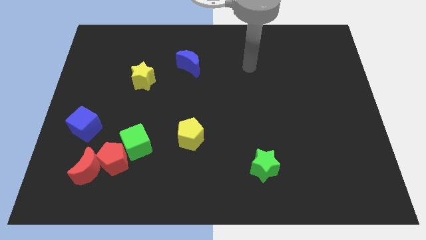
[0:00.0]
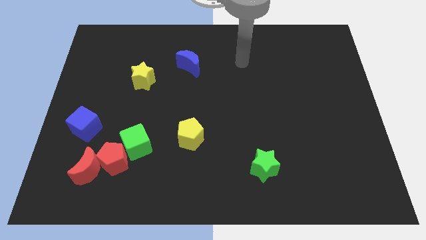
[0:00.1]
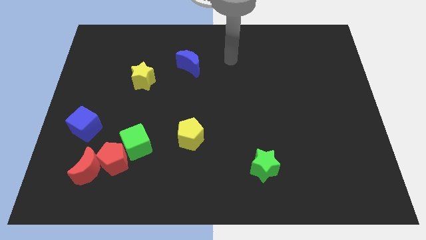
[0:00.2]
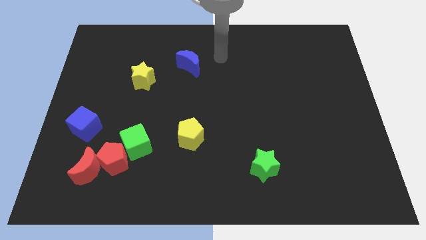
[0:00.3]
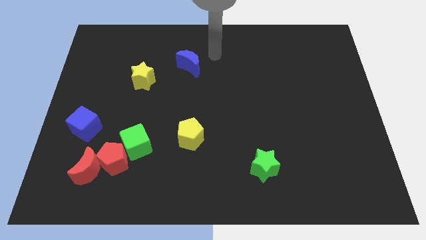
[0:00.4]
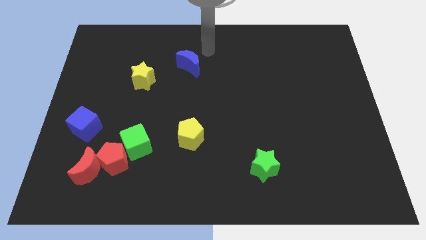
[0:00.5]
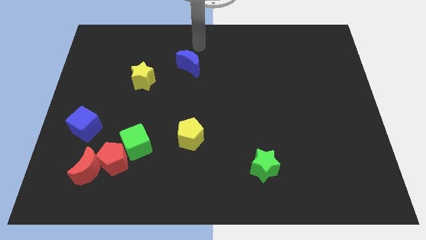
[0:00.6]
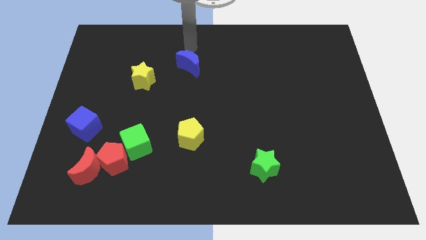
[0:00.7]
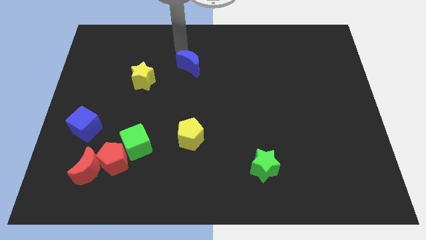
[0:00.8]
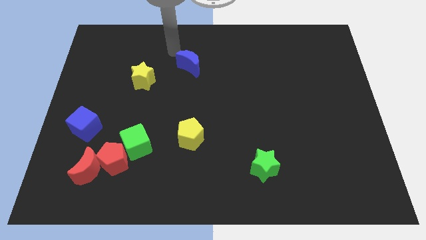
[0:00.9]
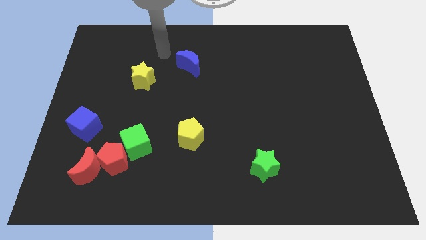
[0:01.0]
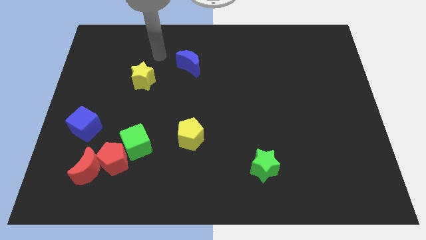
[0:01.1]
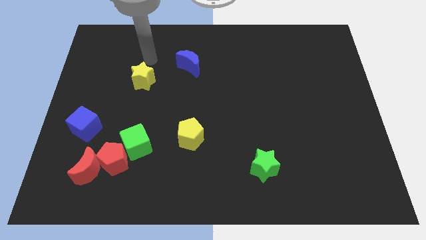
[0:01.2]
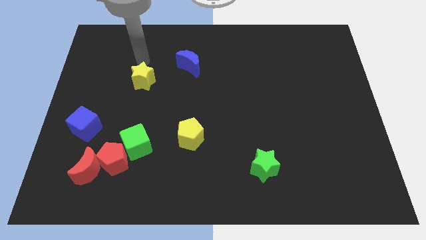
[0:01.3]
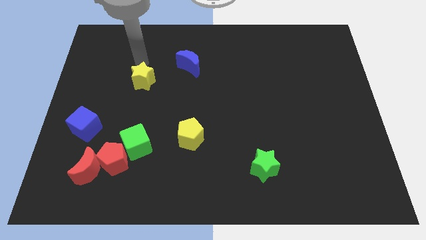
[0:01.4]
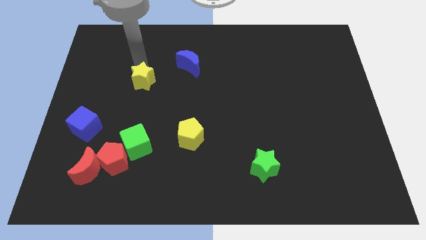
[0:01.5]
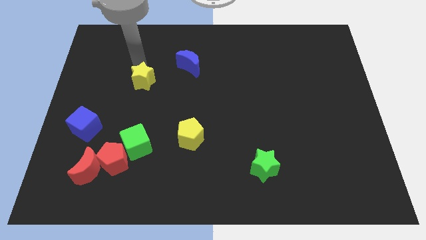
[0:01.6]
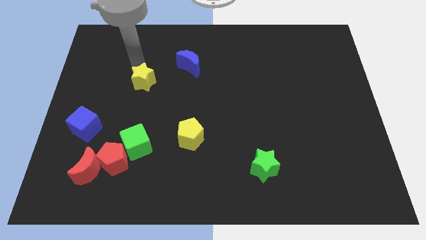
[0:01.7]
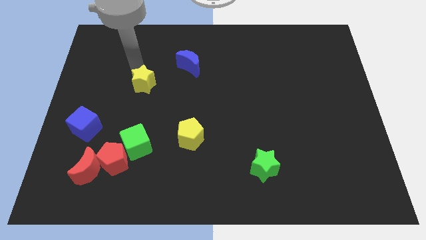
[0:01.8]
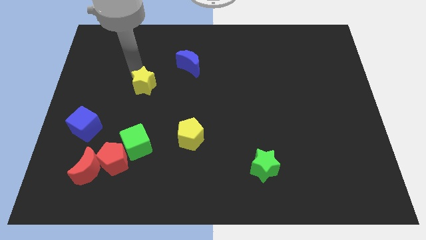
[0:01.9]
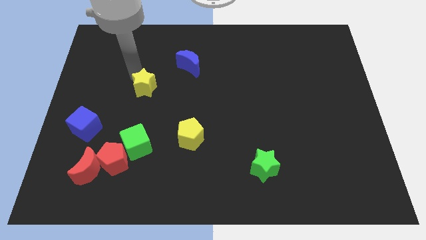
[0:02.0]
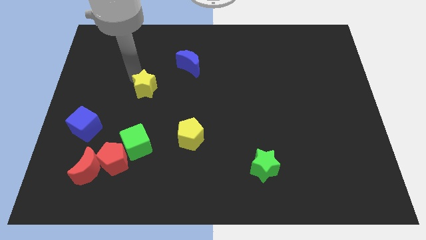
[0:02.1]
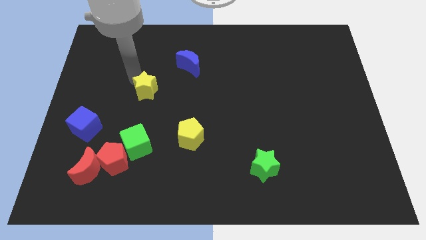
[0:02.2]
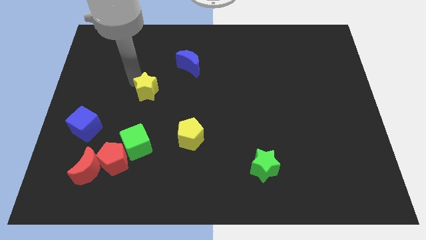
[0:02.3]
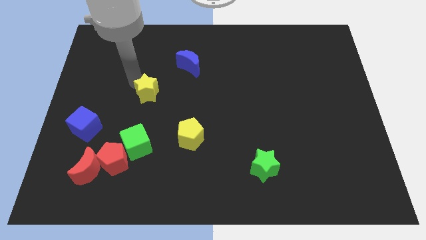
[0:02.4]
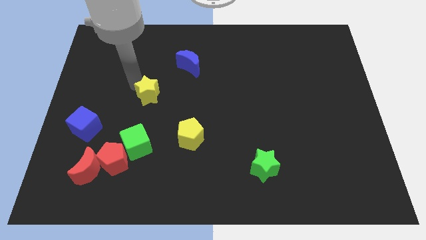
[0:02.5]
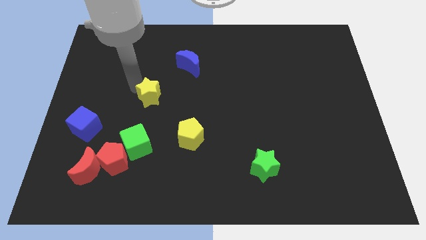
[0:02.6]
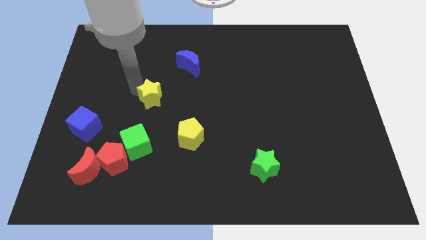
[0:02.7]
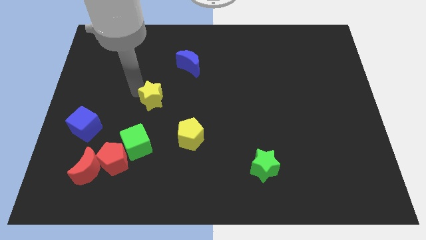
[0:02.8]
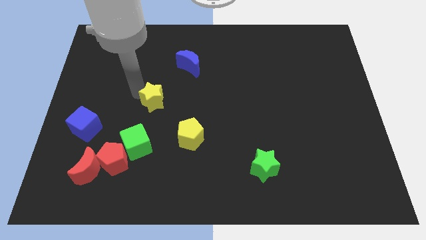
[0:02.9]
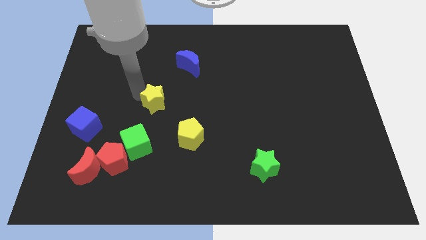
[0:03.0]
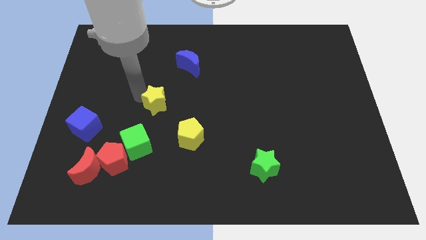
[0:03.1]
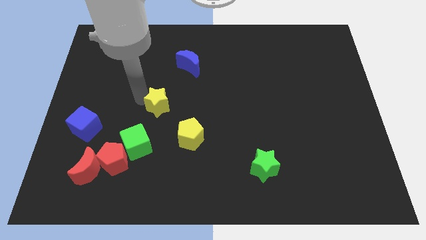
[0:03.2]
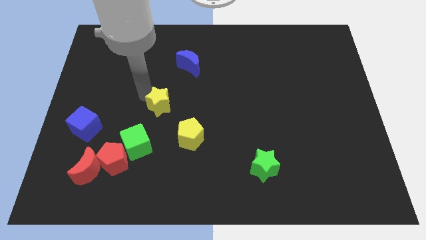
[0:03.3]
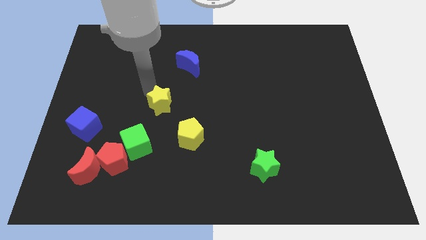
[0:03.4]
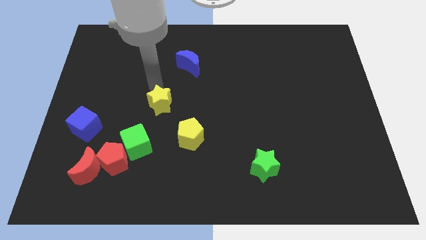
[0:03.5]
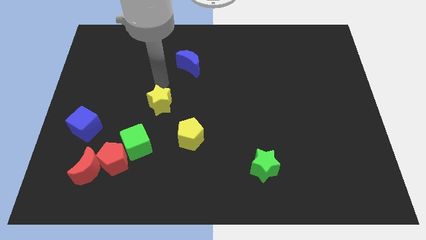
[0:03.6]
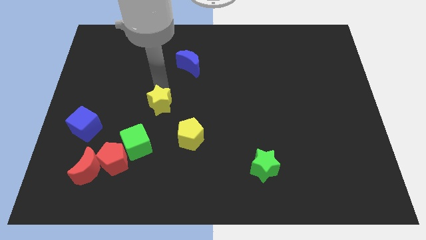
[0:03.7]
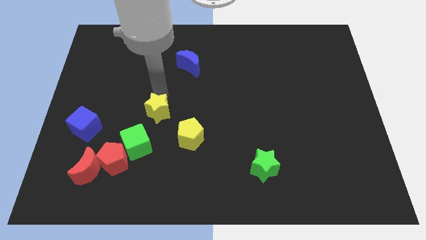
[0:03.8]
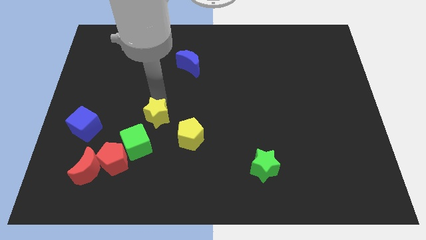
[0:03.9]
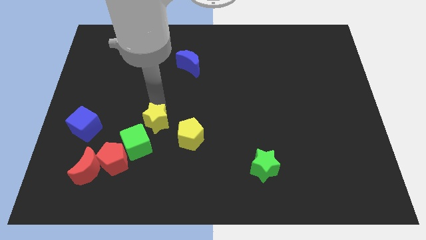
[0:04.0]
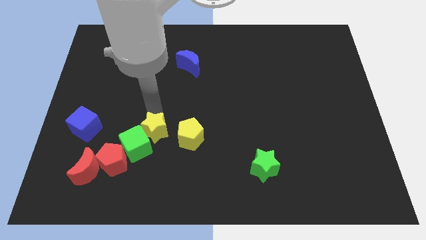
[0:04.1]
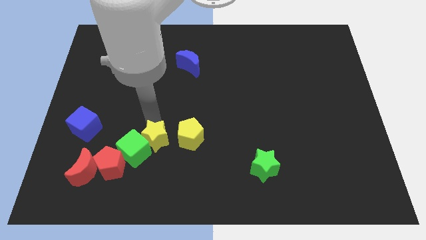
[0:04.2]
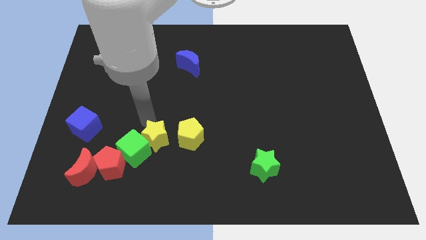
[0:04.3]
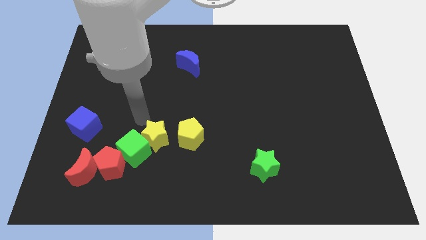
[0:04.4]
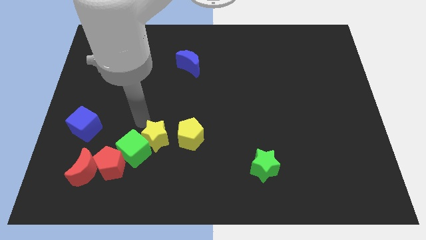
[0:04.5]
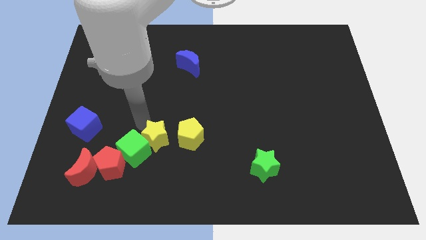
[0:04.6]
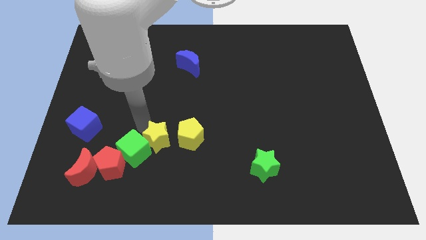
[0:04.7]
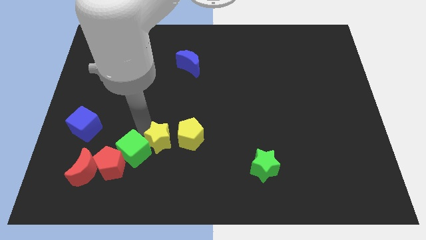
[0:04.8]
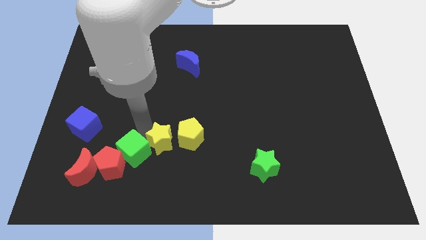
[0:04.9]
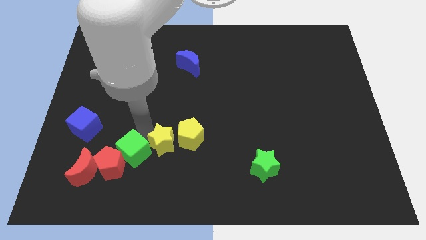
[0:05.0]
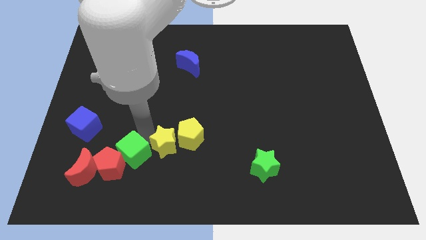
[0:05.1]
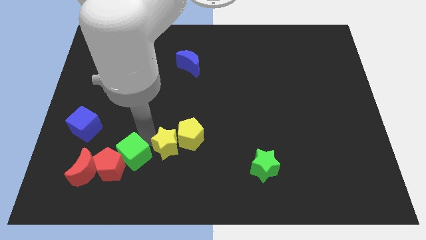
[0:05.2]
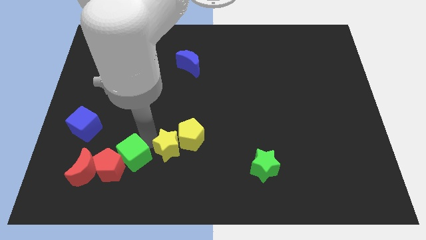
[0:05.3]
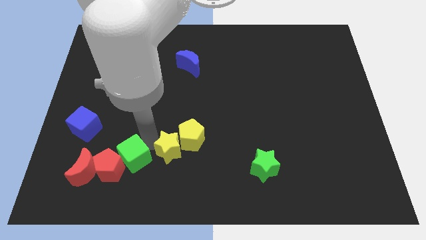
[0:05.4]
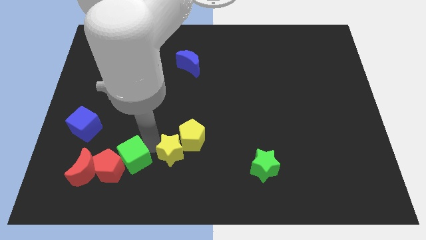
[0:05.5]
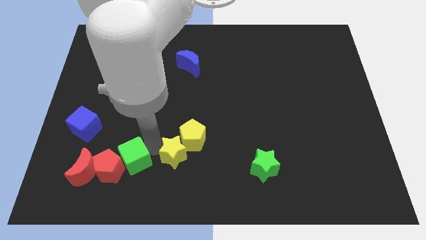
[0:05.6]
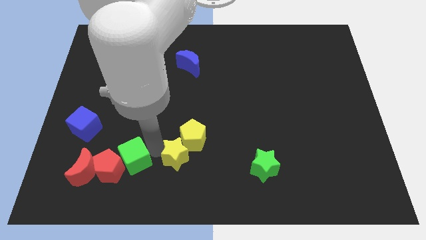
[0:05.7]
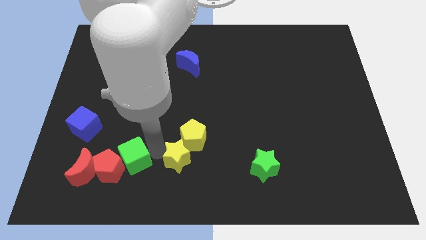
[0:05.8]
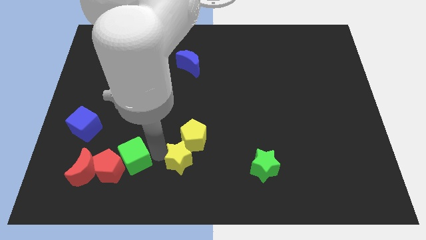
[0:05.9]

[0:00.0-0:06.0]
move the yellow star to the bottom side

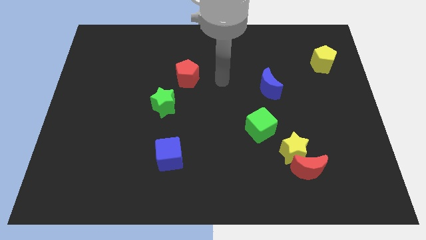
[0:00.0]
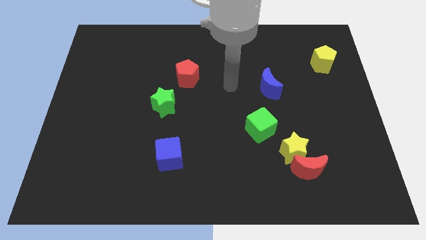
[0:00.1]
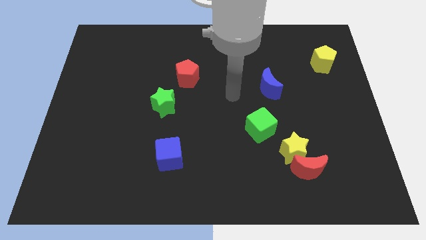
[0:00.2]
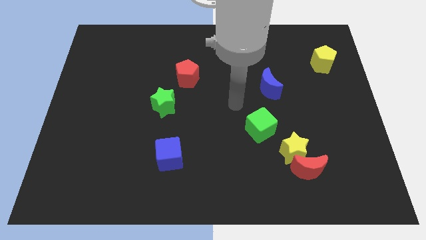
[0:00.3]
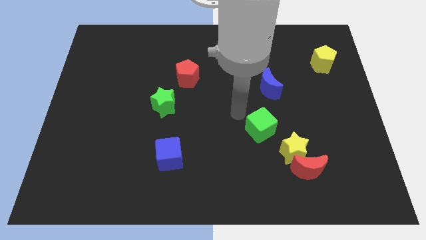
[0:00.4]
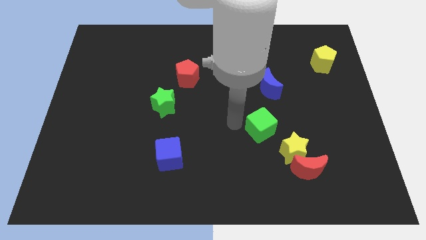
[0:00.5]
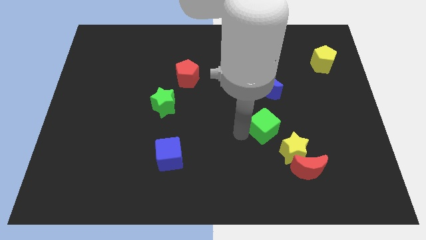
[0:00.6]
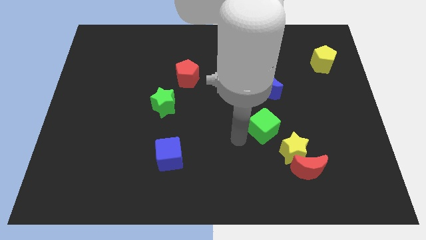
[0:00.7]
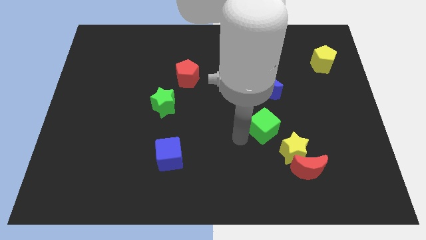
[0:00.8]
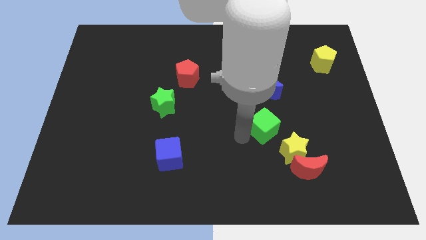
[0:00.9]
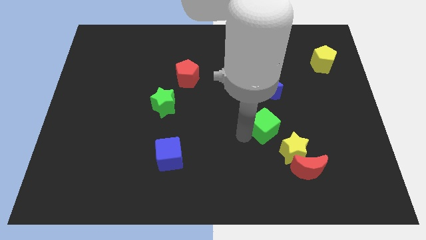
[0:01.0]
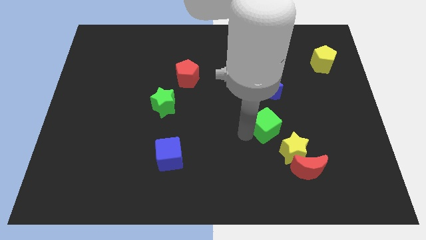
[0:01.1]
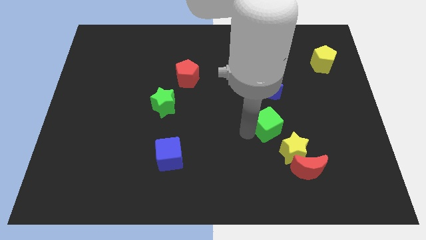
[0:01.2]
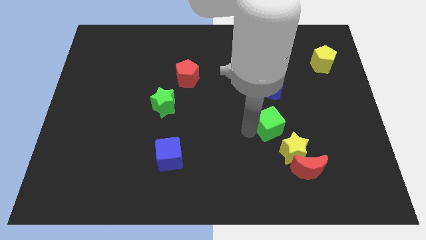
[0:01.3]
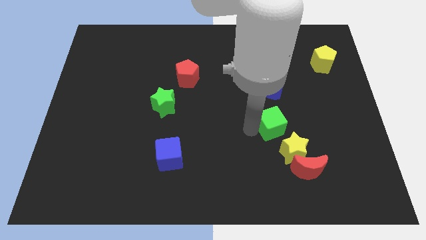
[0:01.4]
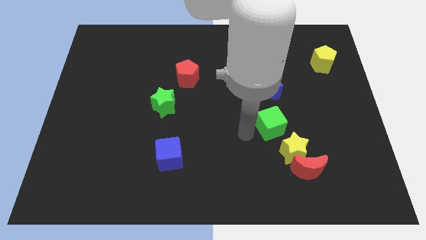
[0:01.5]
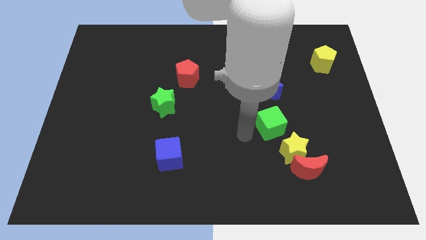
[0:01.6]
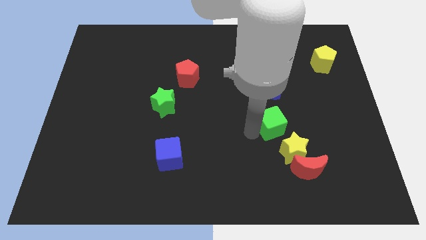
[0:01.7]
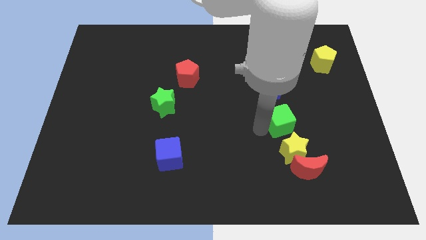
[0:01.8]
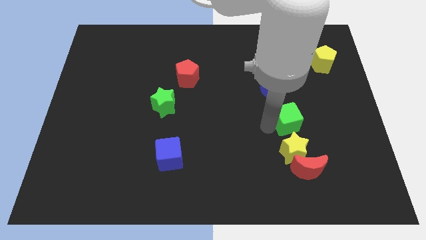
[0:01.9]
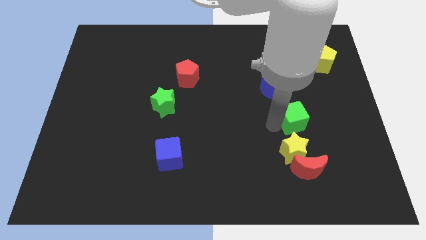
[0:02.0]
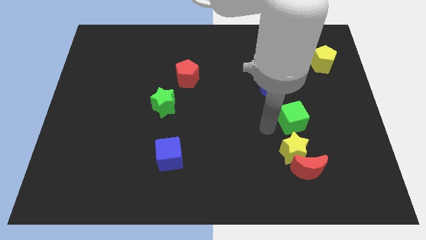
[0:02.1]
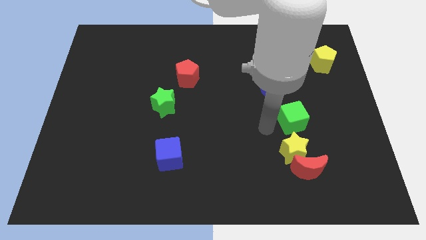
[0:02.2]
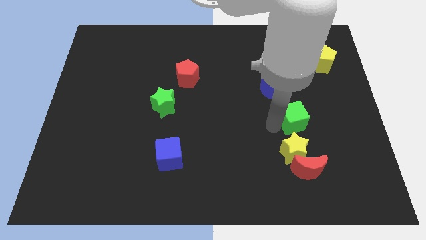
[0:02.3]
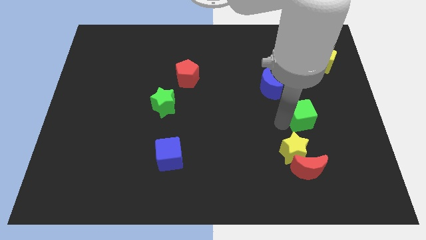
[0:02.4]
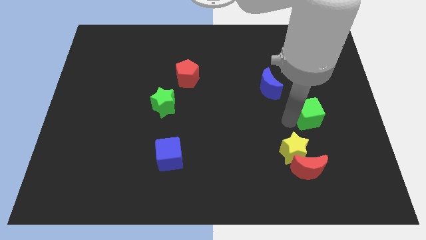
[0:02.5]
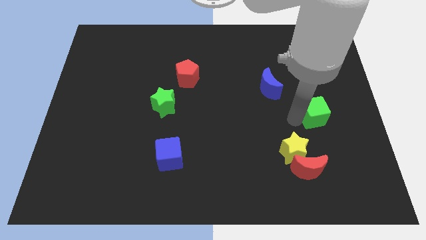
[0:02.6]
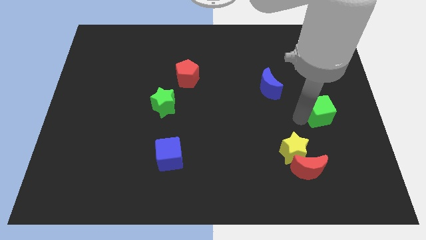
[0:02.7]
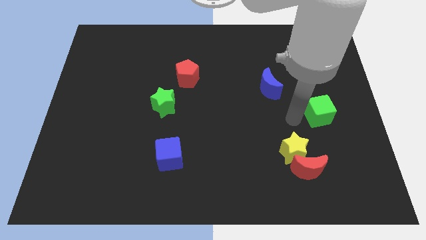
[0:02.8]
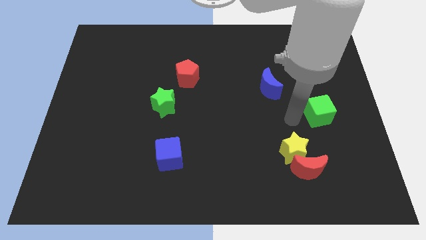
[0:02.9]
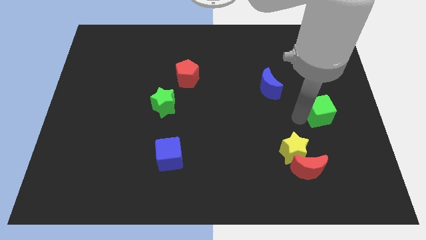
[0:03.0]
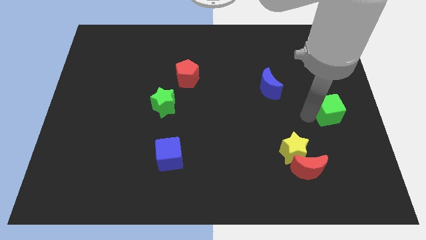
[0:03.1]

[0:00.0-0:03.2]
slide the green cube to the right side of the board
